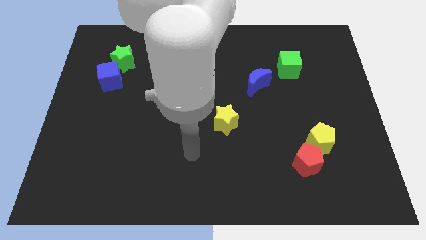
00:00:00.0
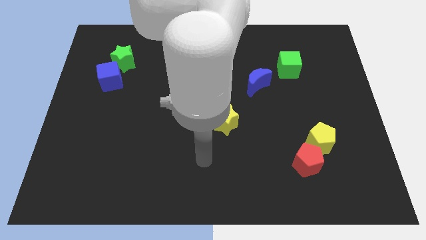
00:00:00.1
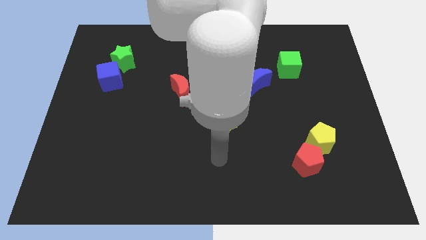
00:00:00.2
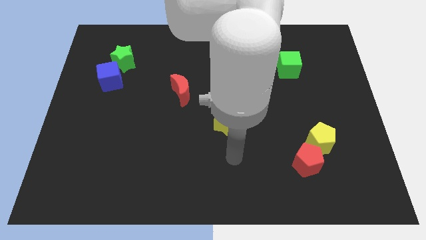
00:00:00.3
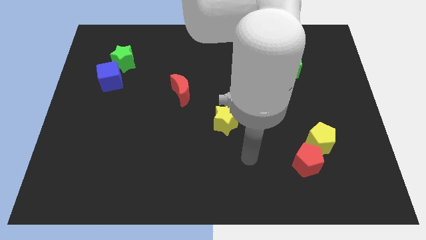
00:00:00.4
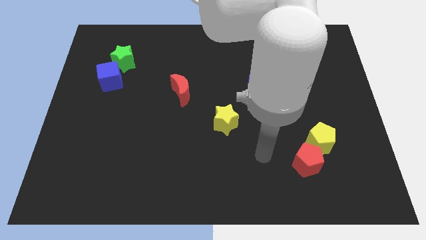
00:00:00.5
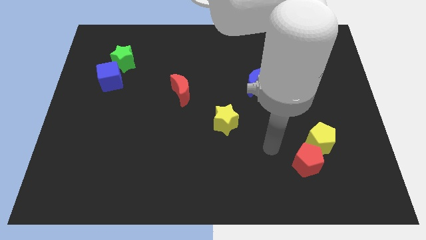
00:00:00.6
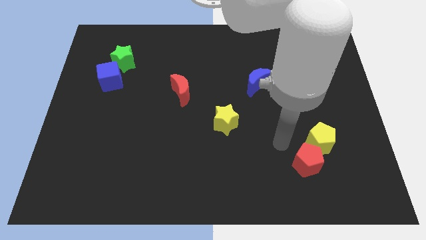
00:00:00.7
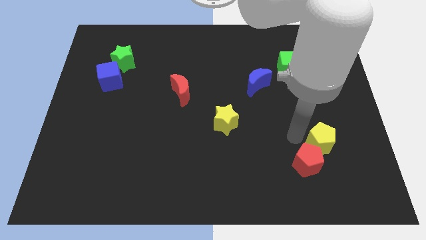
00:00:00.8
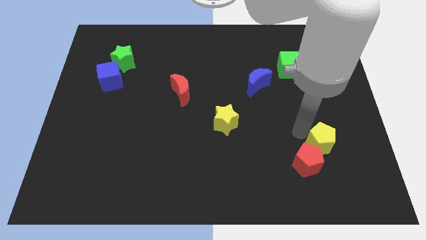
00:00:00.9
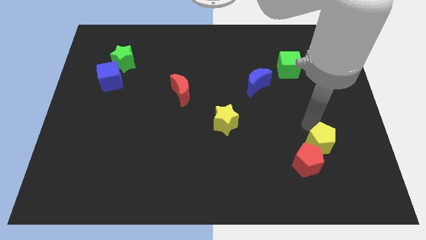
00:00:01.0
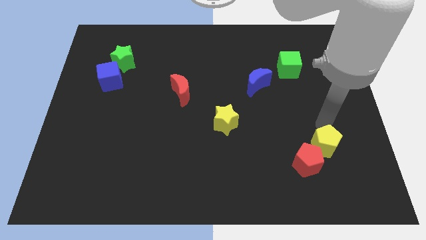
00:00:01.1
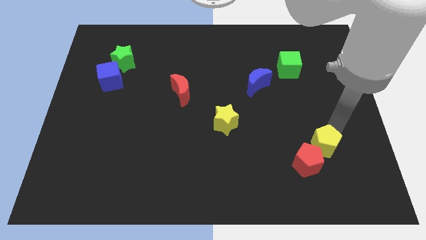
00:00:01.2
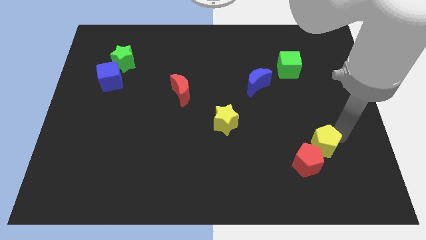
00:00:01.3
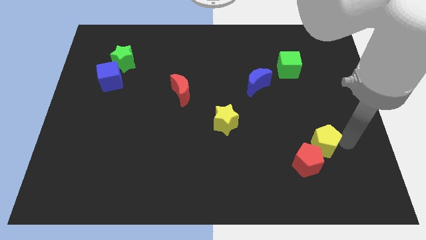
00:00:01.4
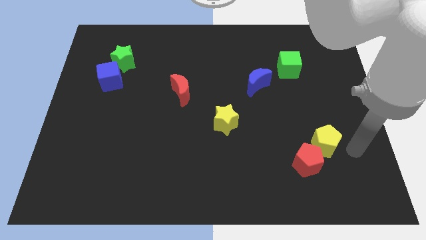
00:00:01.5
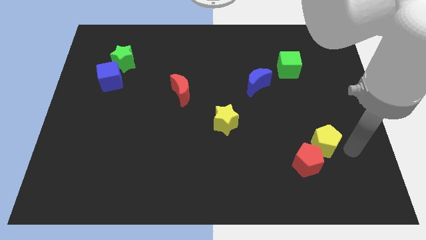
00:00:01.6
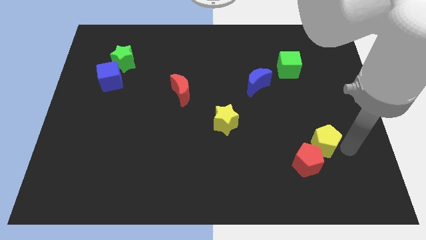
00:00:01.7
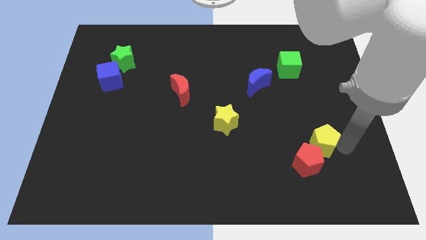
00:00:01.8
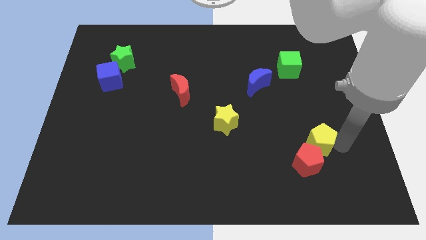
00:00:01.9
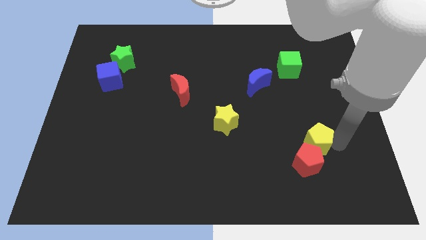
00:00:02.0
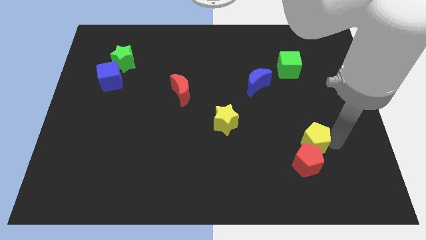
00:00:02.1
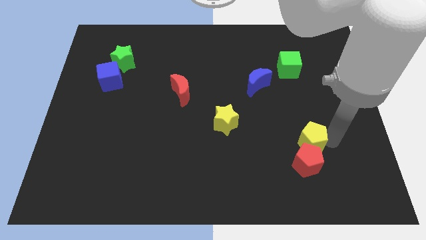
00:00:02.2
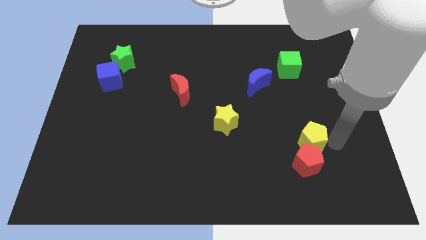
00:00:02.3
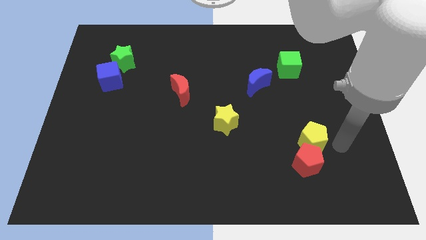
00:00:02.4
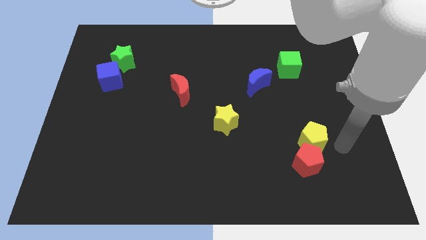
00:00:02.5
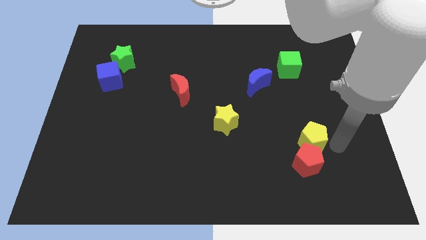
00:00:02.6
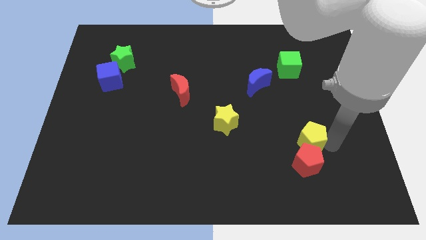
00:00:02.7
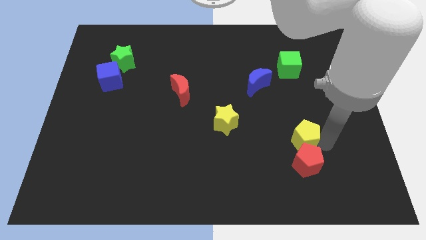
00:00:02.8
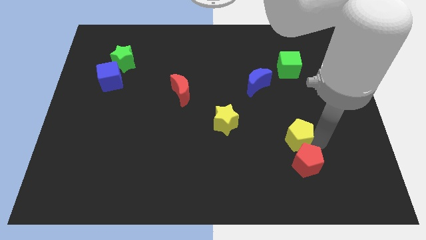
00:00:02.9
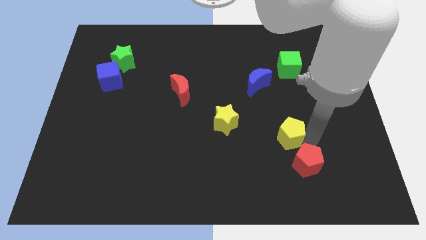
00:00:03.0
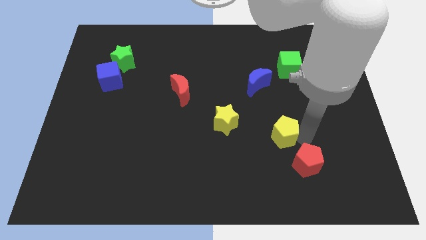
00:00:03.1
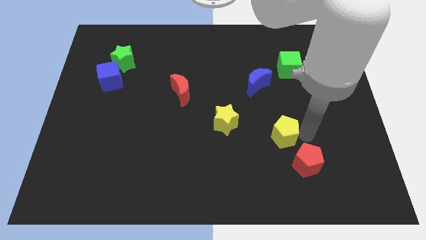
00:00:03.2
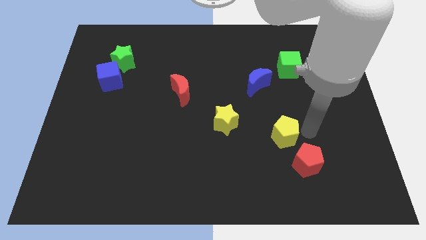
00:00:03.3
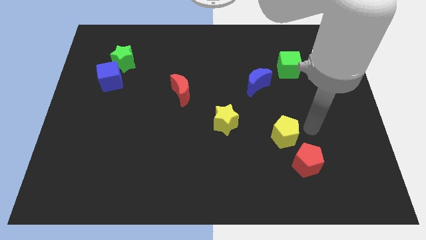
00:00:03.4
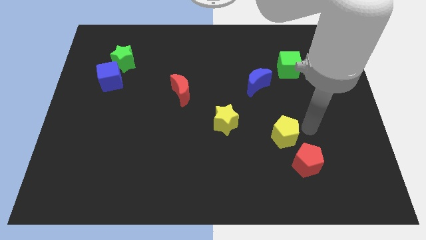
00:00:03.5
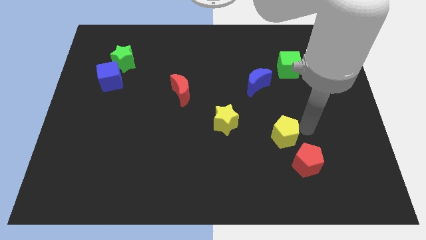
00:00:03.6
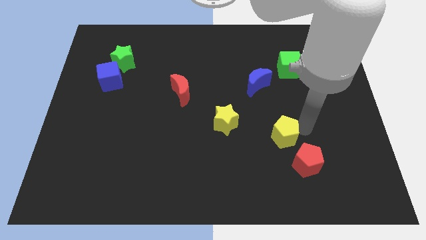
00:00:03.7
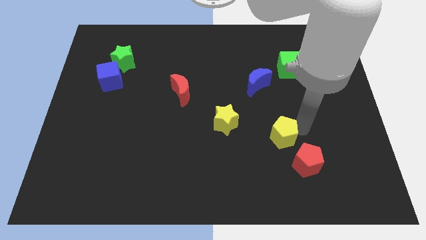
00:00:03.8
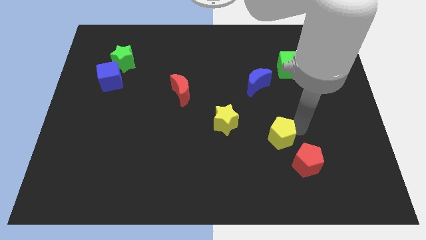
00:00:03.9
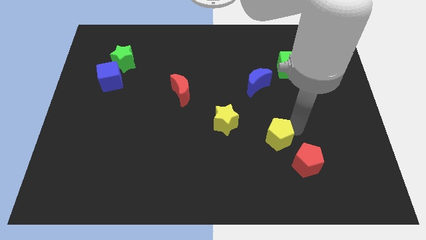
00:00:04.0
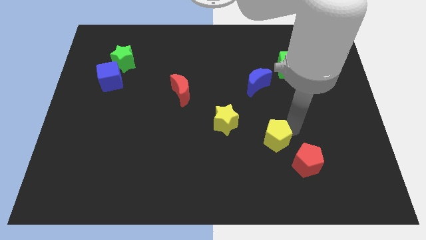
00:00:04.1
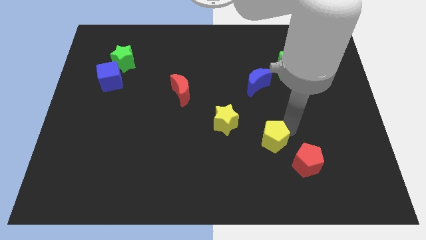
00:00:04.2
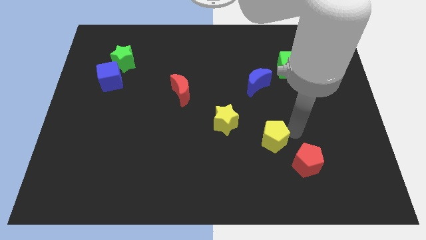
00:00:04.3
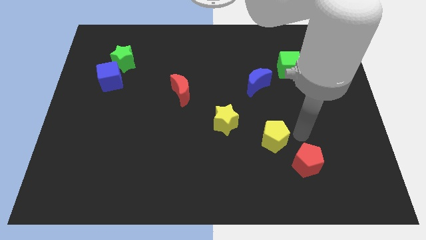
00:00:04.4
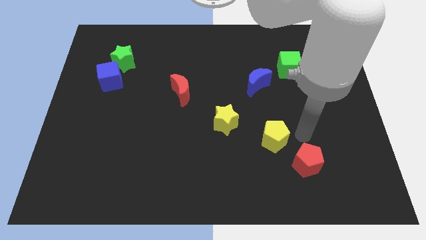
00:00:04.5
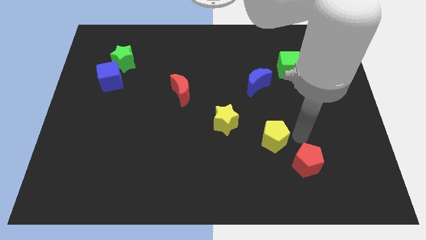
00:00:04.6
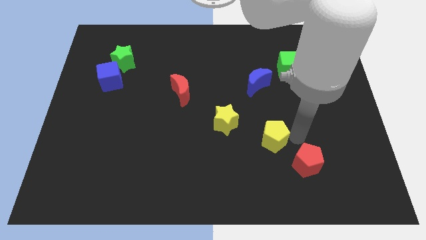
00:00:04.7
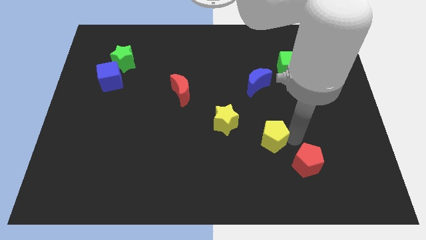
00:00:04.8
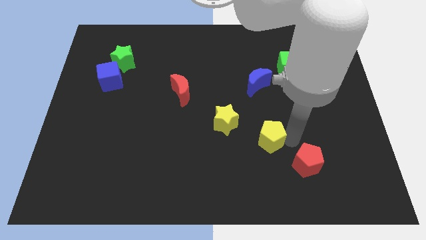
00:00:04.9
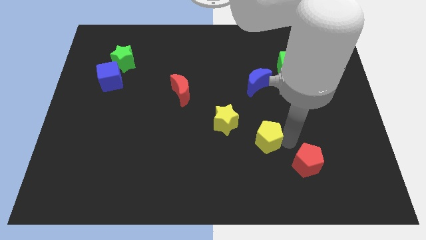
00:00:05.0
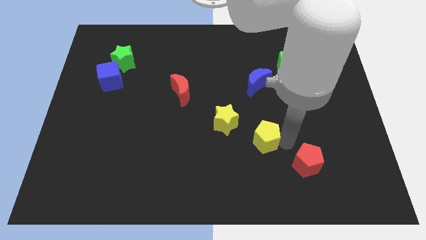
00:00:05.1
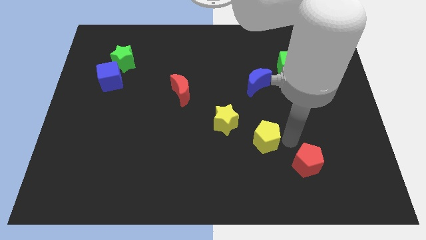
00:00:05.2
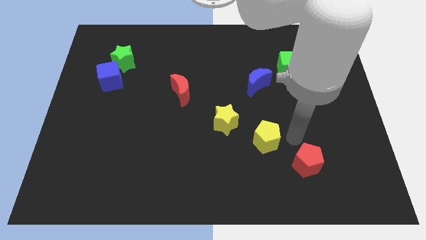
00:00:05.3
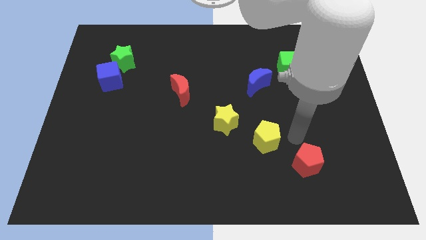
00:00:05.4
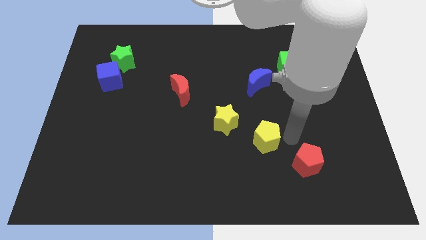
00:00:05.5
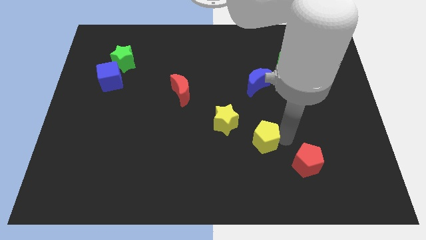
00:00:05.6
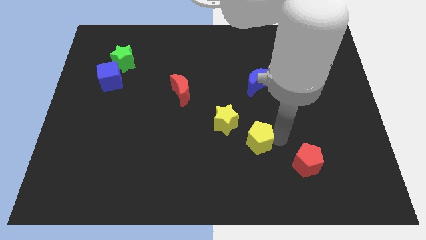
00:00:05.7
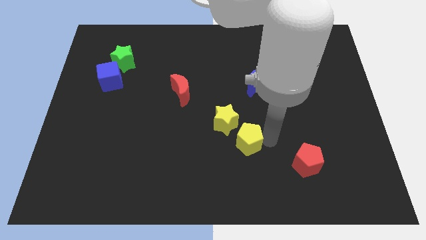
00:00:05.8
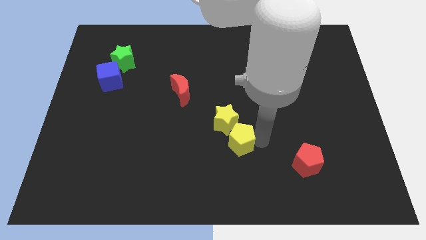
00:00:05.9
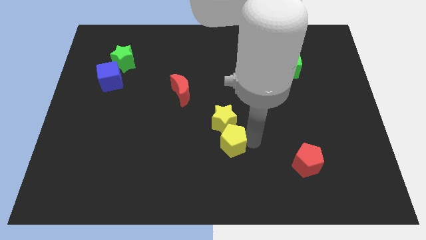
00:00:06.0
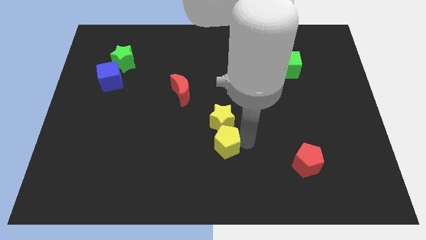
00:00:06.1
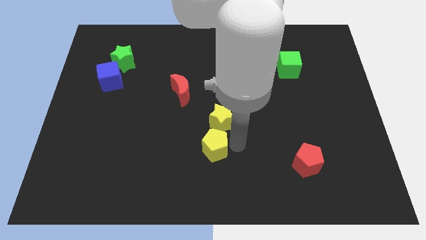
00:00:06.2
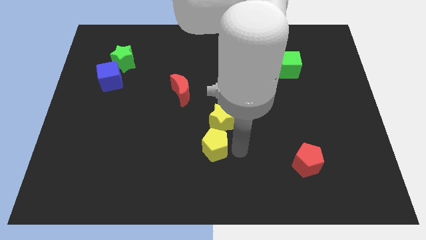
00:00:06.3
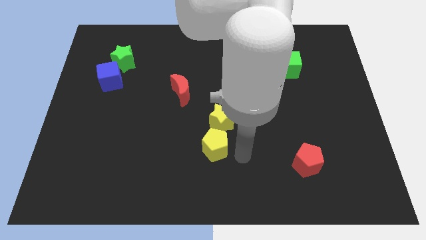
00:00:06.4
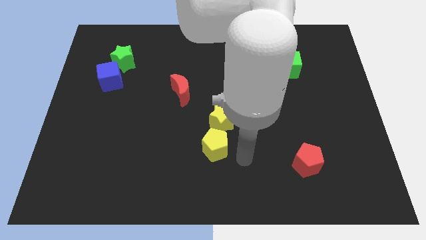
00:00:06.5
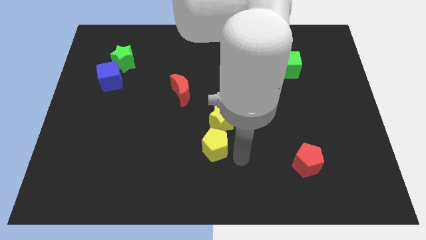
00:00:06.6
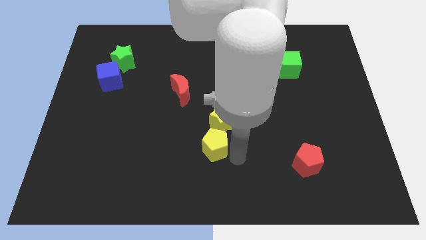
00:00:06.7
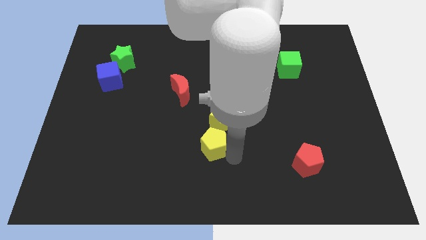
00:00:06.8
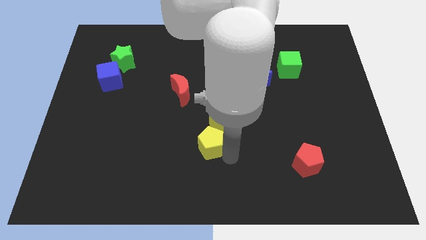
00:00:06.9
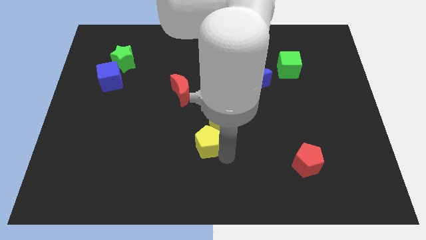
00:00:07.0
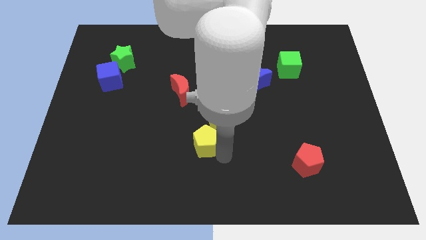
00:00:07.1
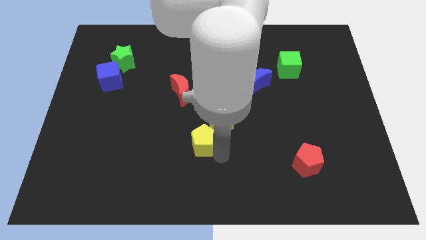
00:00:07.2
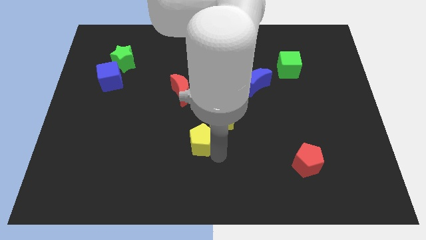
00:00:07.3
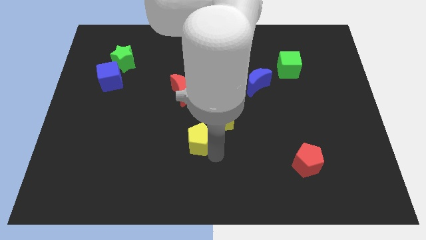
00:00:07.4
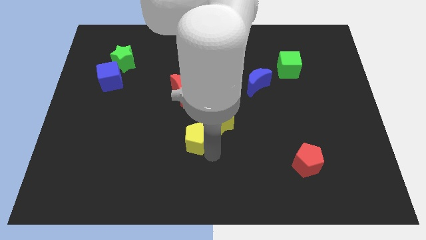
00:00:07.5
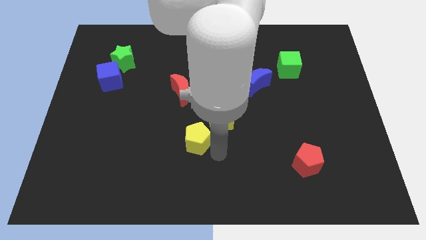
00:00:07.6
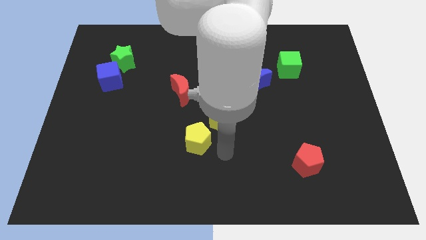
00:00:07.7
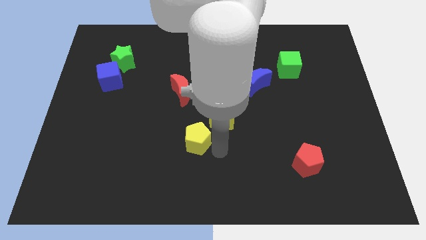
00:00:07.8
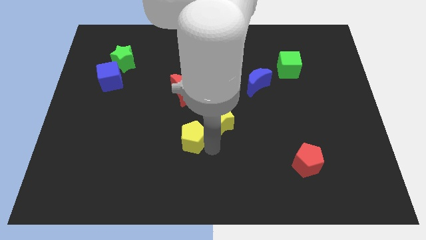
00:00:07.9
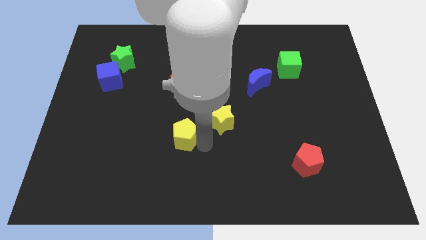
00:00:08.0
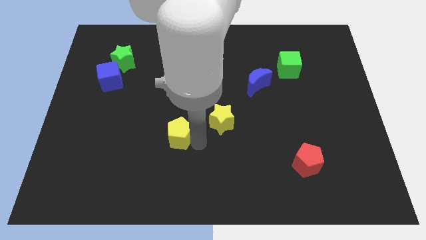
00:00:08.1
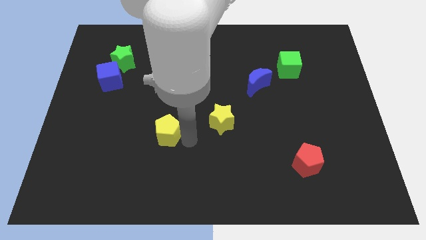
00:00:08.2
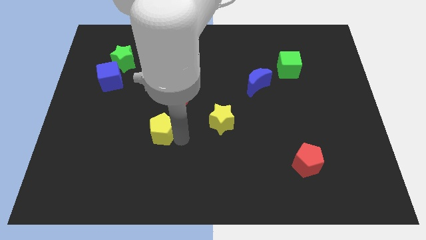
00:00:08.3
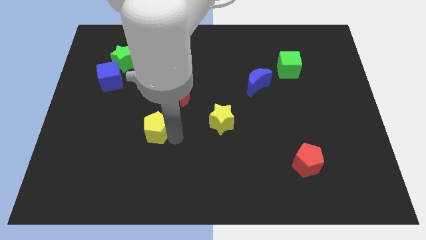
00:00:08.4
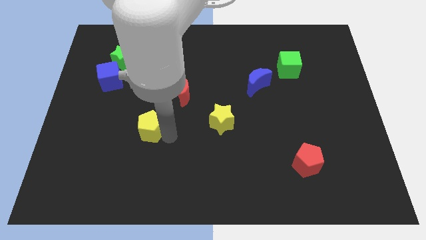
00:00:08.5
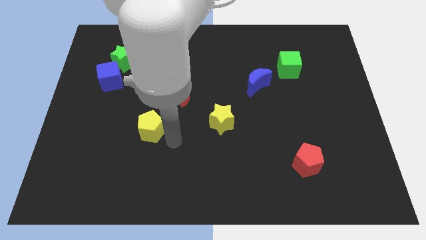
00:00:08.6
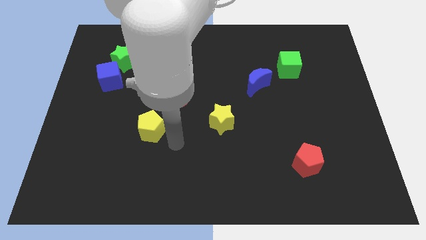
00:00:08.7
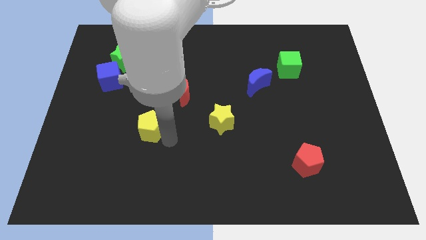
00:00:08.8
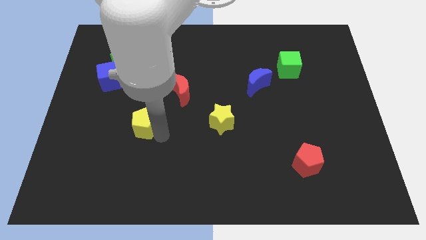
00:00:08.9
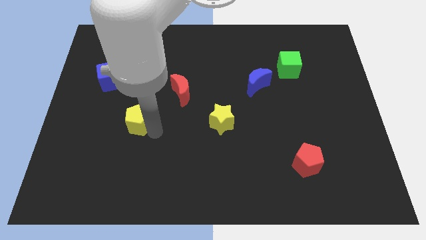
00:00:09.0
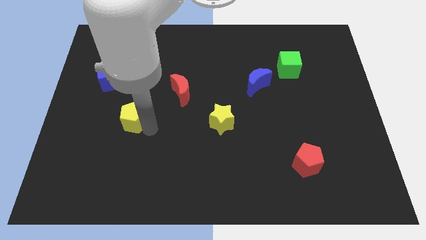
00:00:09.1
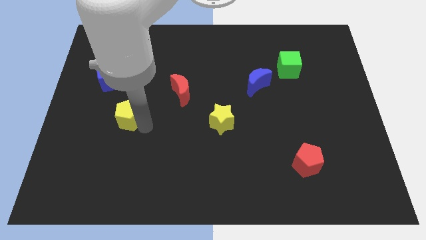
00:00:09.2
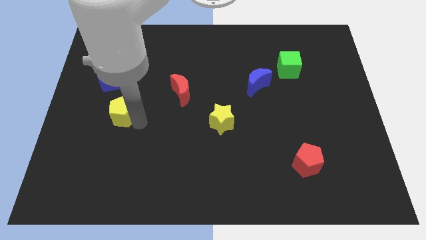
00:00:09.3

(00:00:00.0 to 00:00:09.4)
put the yellow pentagon below the blue cube
